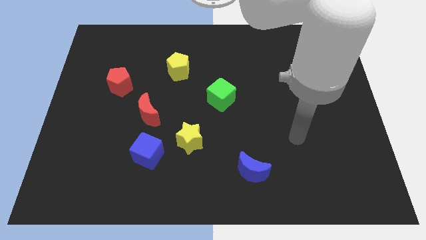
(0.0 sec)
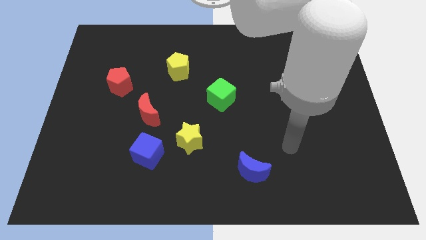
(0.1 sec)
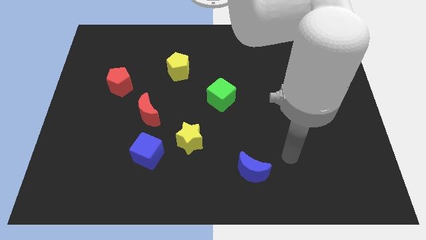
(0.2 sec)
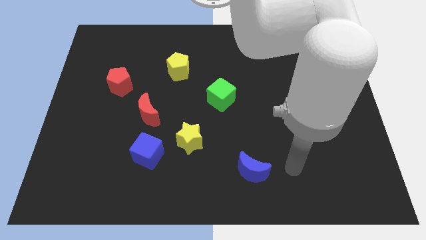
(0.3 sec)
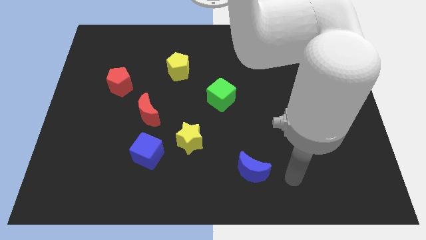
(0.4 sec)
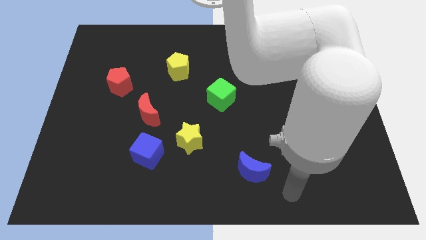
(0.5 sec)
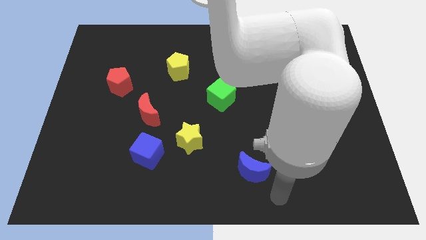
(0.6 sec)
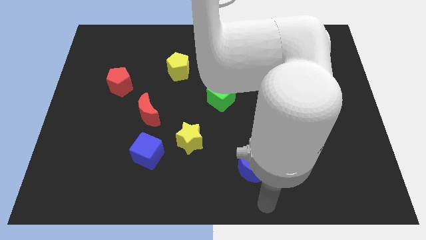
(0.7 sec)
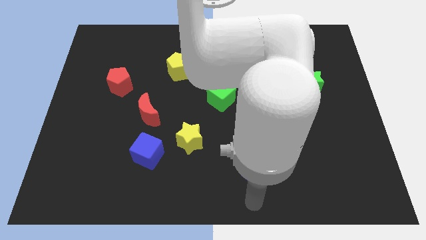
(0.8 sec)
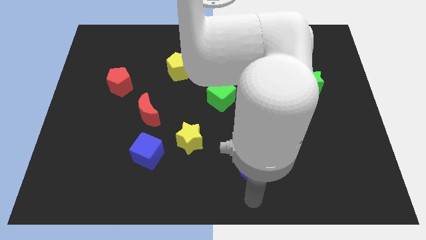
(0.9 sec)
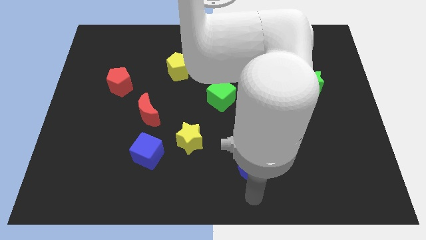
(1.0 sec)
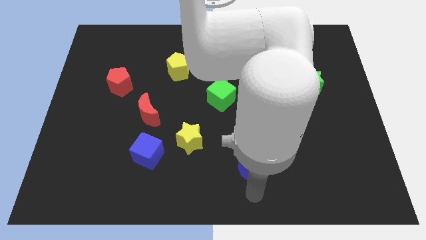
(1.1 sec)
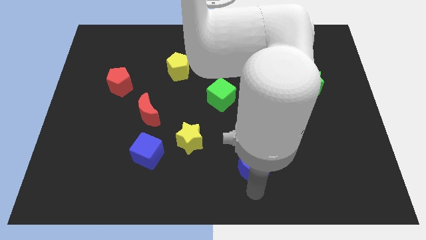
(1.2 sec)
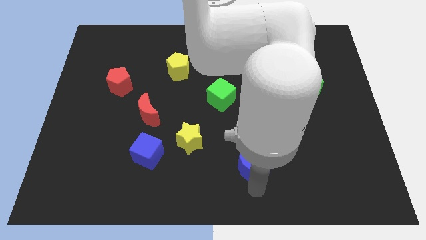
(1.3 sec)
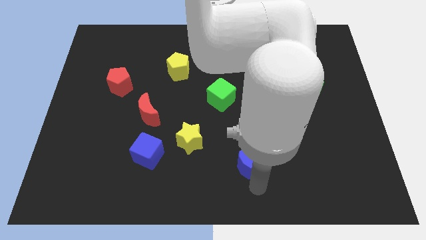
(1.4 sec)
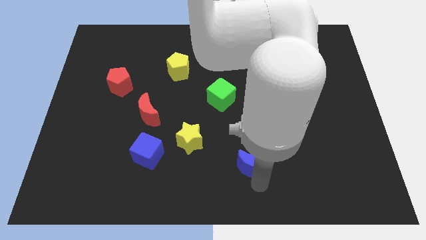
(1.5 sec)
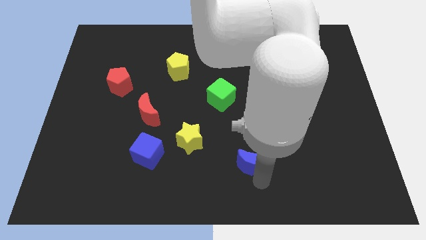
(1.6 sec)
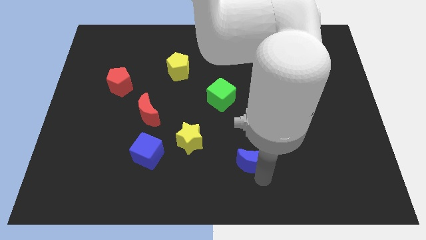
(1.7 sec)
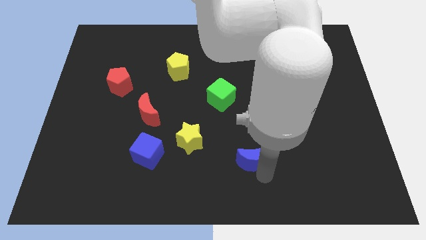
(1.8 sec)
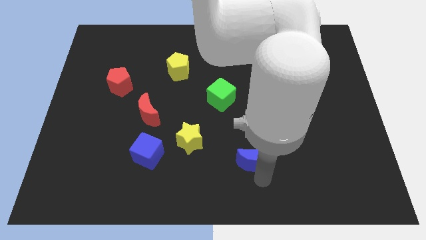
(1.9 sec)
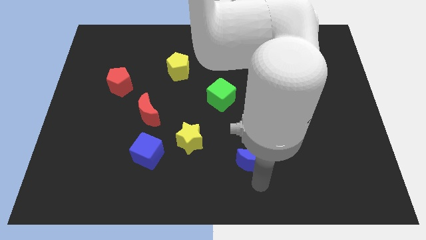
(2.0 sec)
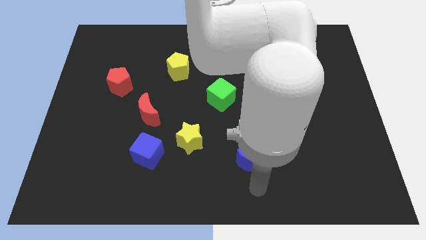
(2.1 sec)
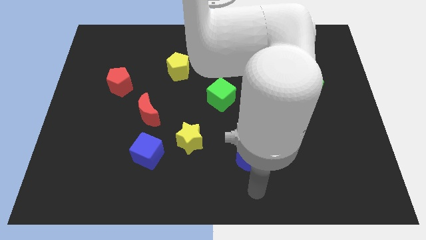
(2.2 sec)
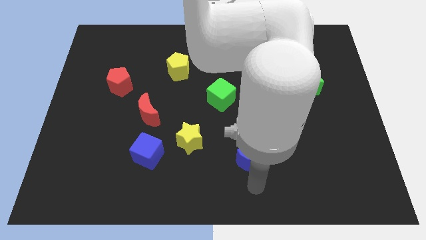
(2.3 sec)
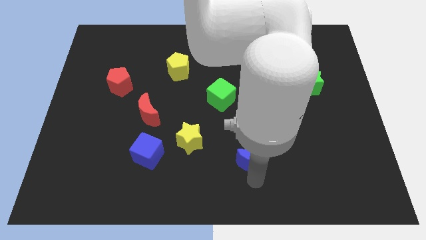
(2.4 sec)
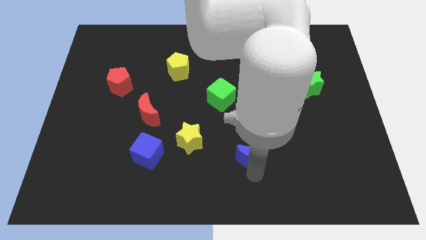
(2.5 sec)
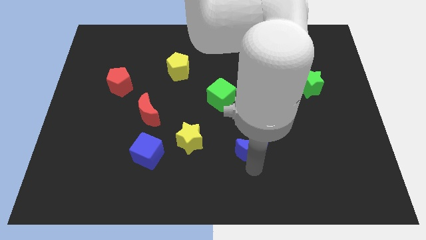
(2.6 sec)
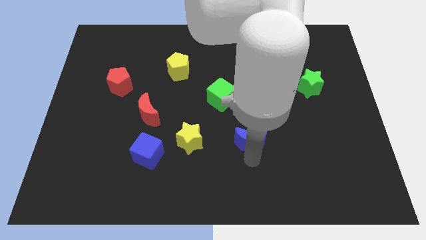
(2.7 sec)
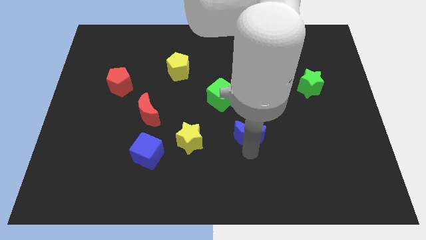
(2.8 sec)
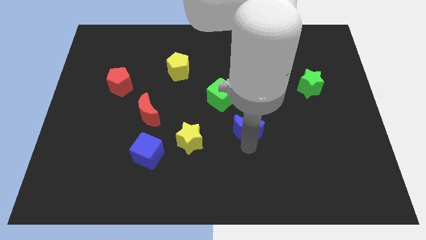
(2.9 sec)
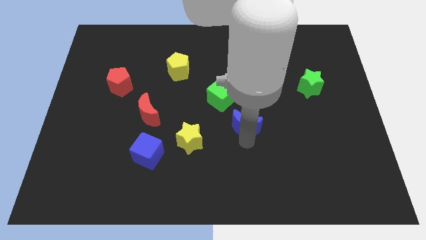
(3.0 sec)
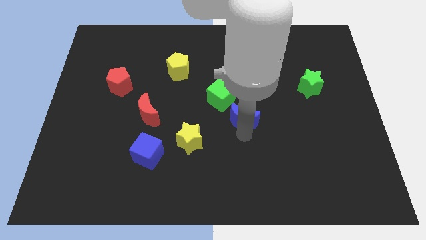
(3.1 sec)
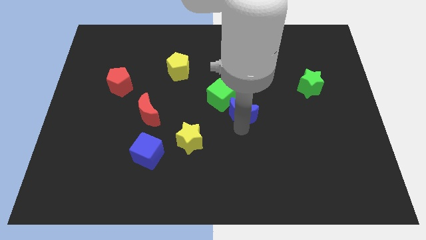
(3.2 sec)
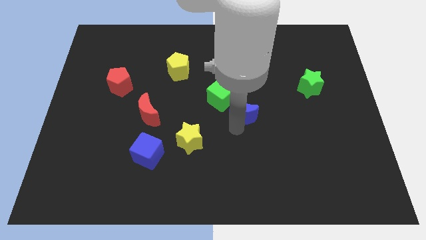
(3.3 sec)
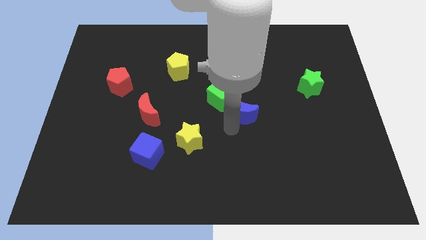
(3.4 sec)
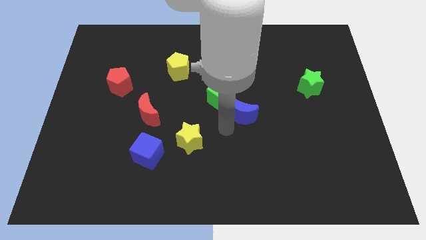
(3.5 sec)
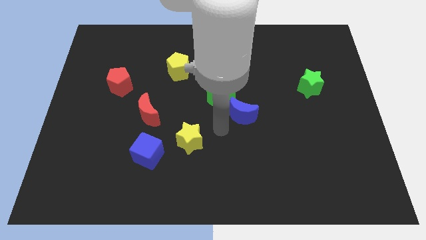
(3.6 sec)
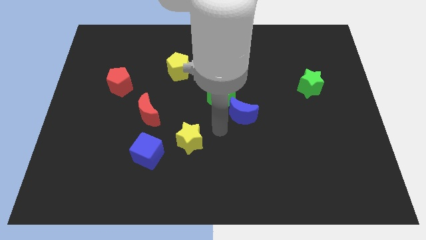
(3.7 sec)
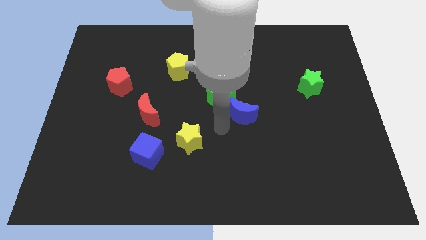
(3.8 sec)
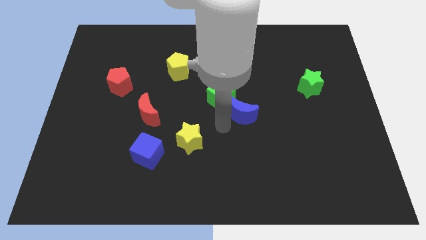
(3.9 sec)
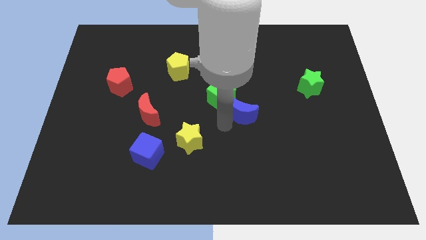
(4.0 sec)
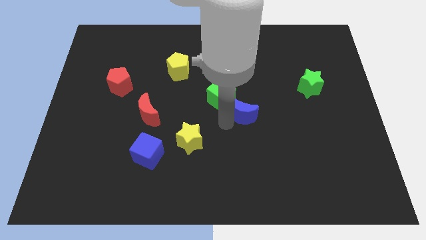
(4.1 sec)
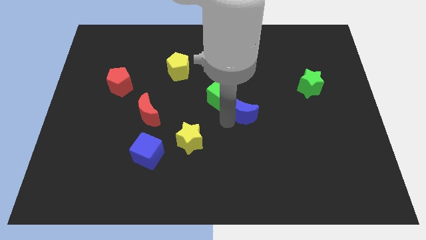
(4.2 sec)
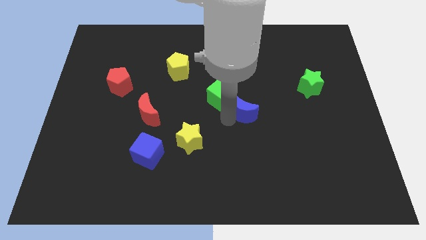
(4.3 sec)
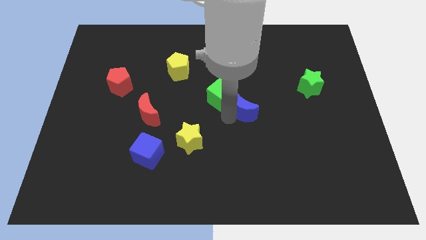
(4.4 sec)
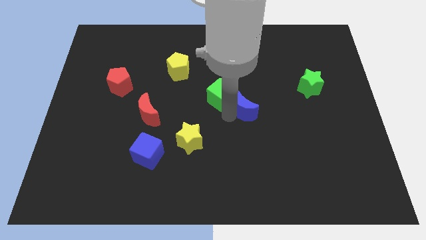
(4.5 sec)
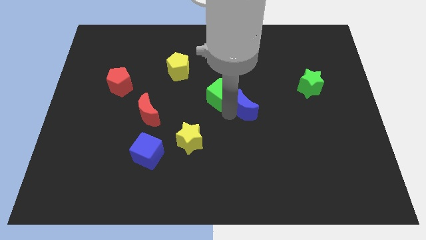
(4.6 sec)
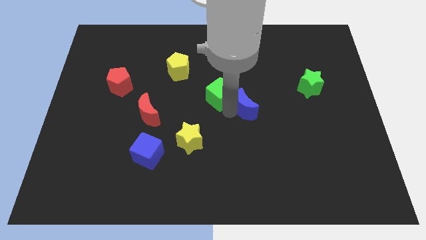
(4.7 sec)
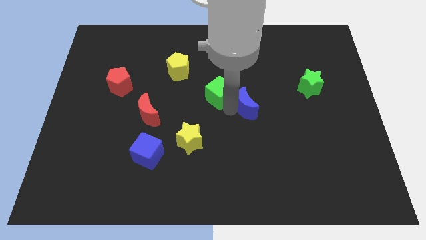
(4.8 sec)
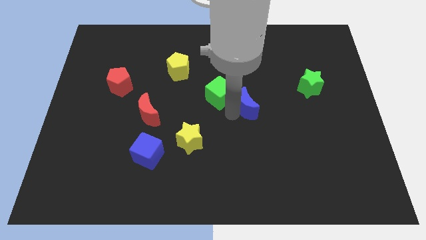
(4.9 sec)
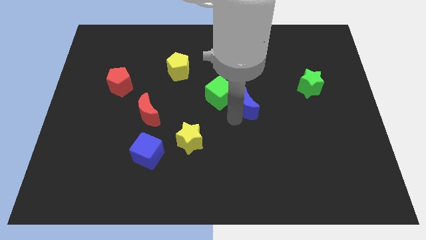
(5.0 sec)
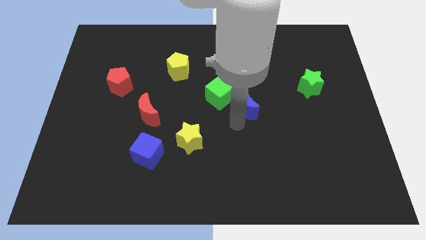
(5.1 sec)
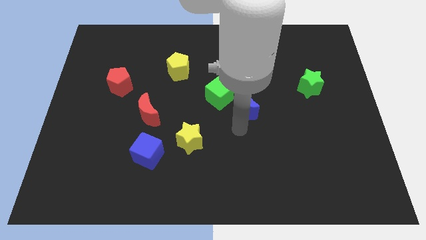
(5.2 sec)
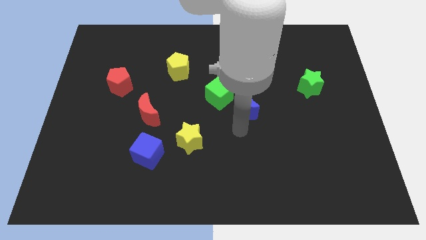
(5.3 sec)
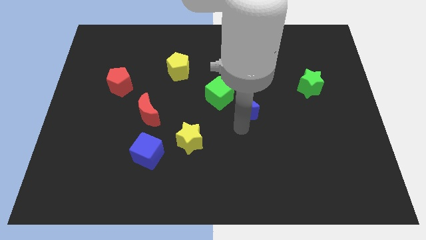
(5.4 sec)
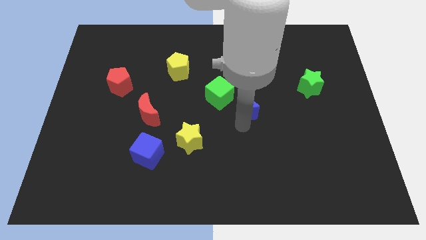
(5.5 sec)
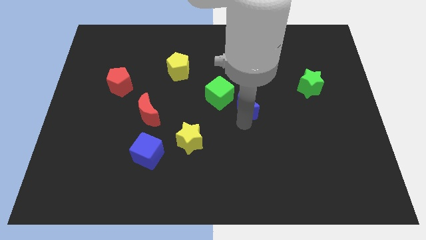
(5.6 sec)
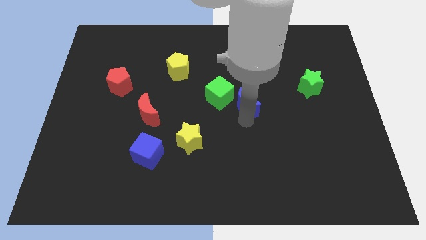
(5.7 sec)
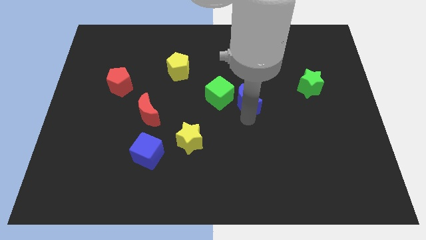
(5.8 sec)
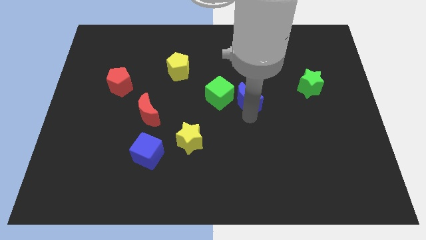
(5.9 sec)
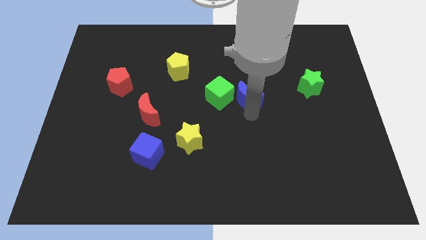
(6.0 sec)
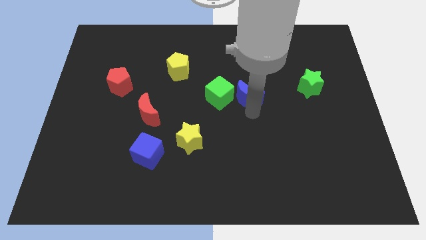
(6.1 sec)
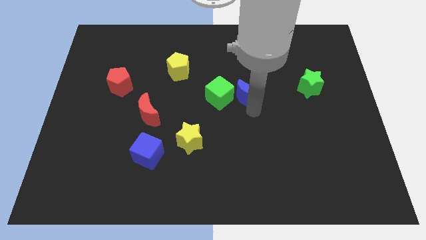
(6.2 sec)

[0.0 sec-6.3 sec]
slide the blue moon up

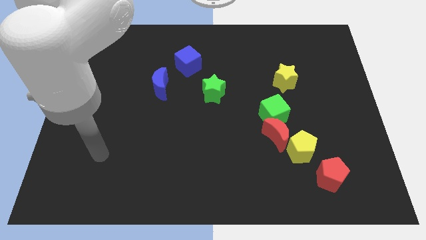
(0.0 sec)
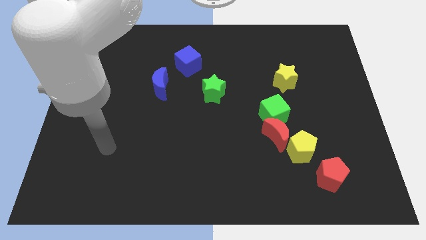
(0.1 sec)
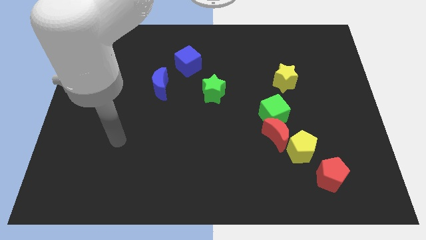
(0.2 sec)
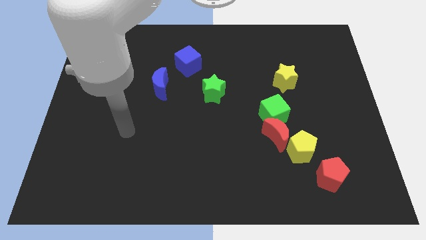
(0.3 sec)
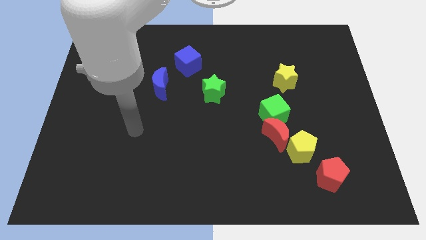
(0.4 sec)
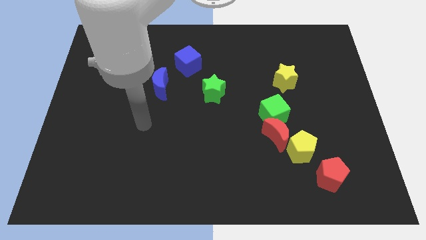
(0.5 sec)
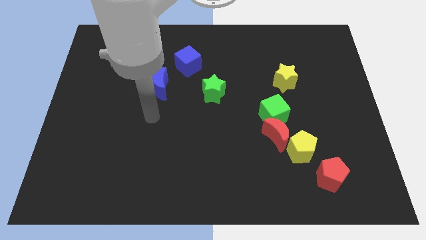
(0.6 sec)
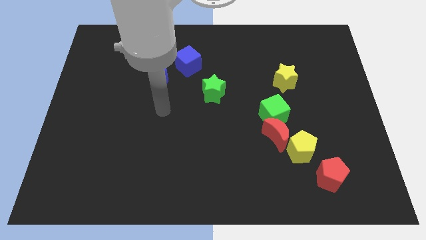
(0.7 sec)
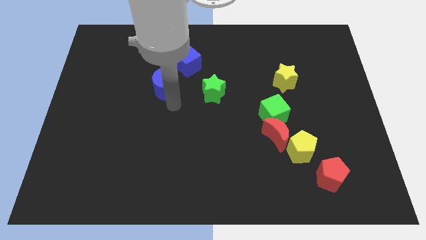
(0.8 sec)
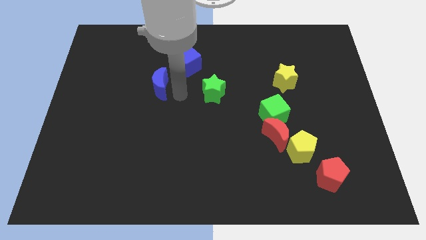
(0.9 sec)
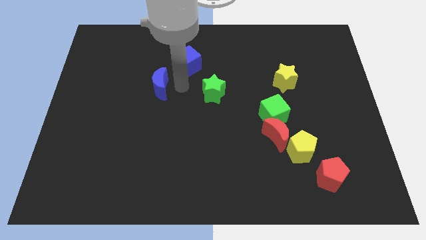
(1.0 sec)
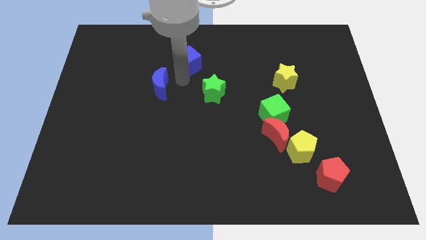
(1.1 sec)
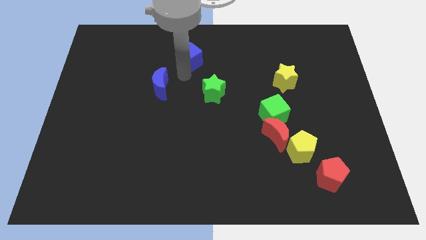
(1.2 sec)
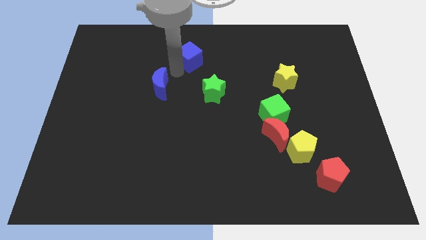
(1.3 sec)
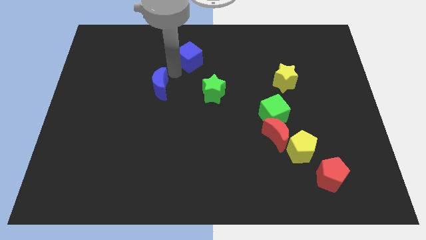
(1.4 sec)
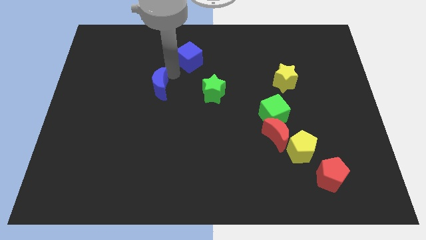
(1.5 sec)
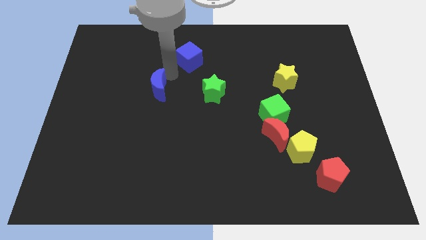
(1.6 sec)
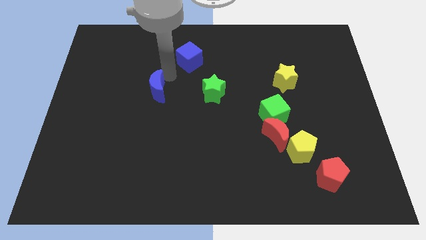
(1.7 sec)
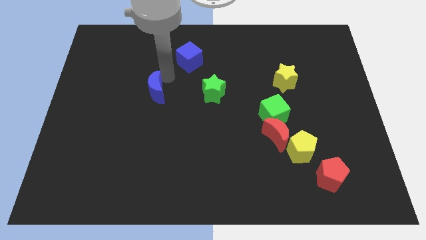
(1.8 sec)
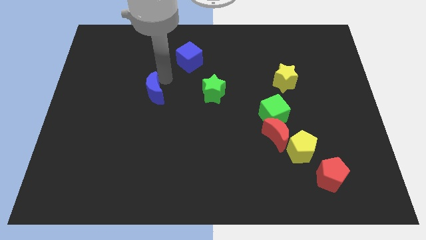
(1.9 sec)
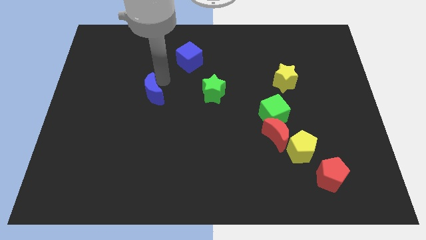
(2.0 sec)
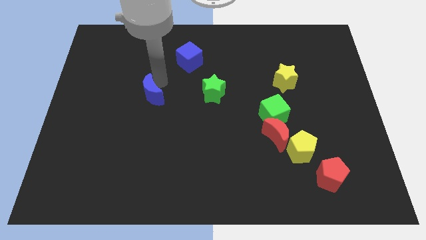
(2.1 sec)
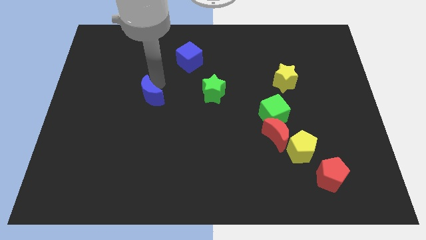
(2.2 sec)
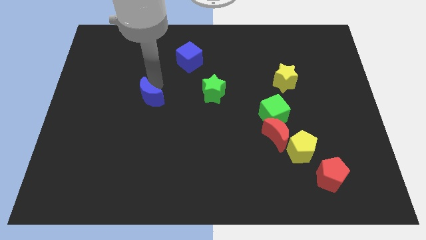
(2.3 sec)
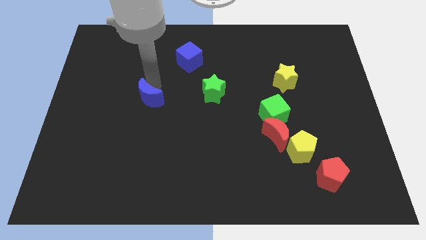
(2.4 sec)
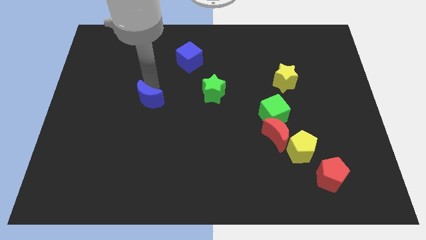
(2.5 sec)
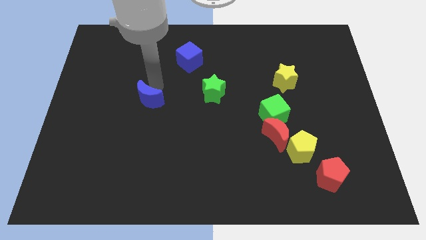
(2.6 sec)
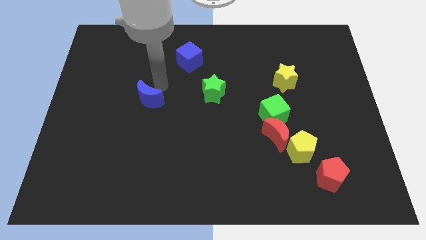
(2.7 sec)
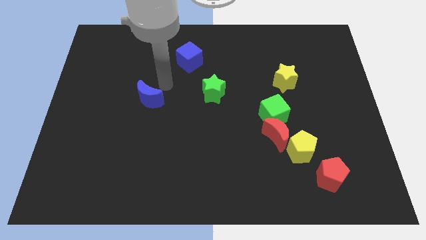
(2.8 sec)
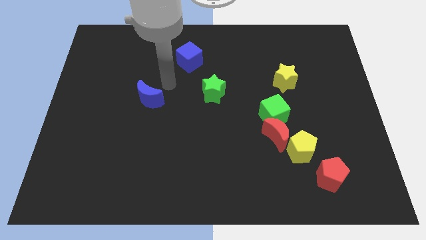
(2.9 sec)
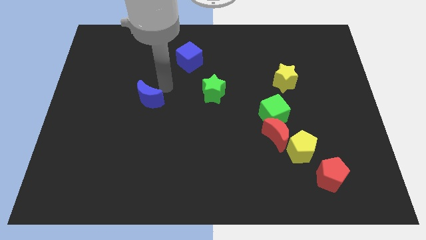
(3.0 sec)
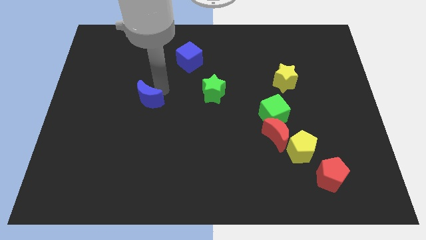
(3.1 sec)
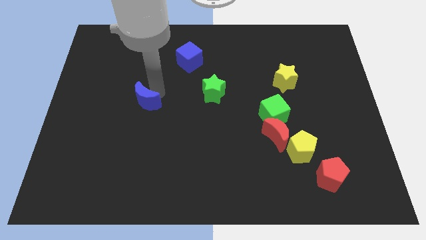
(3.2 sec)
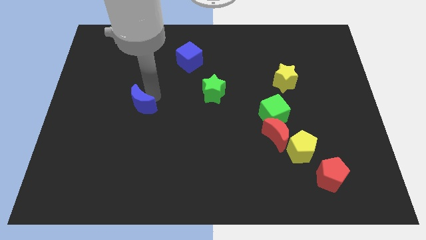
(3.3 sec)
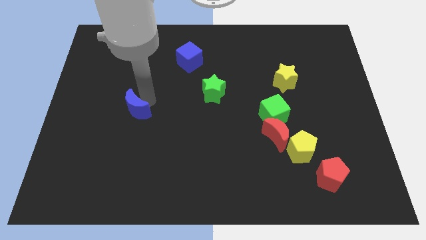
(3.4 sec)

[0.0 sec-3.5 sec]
slightly move the blue moon diagonally down and left
